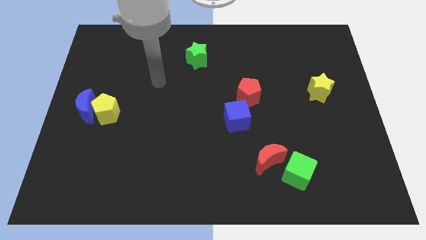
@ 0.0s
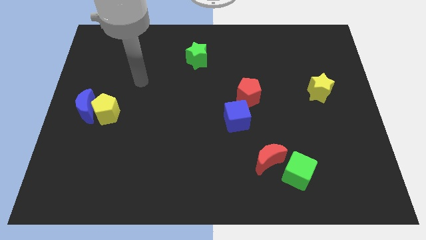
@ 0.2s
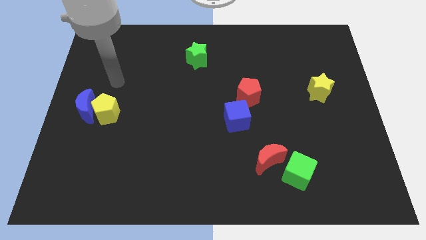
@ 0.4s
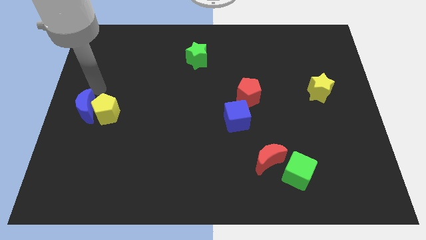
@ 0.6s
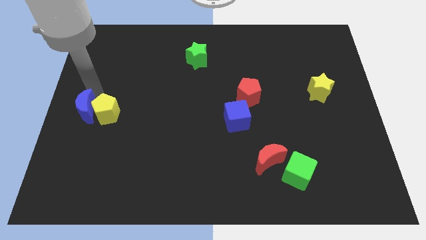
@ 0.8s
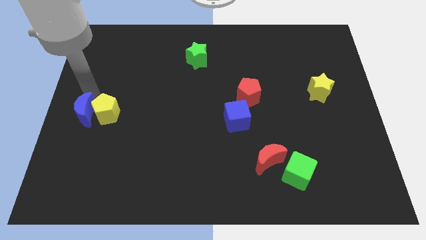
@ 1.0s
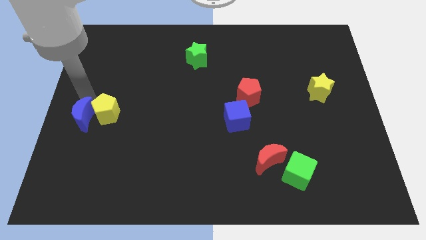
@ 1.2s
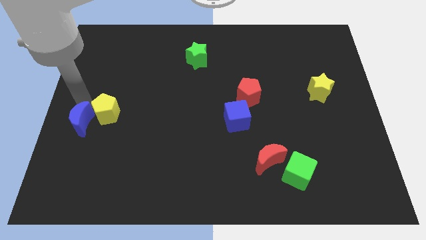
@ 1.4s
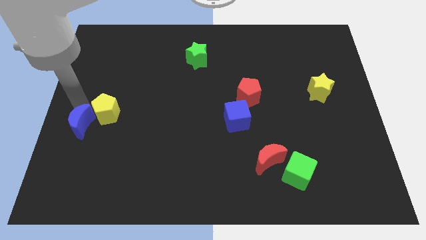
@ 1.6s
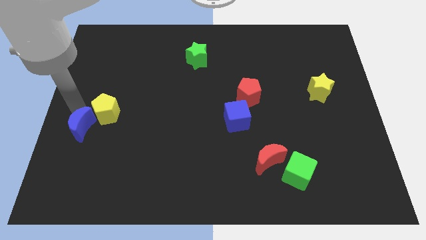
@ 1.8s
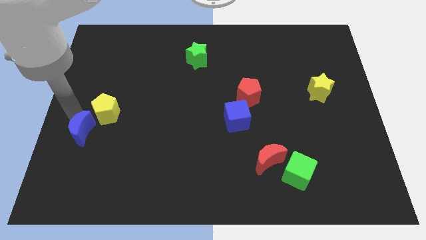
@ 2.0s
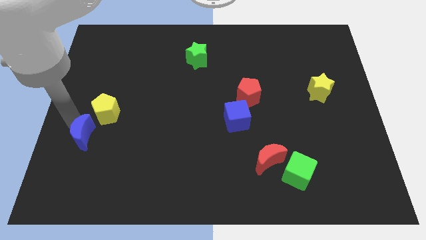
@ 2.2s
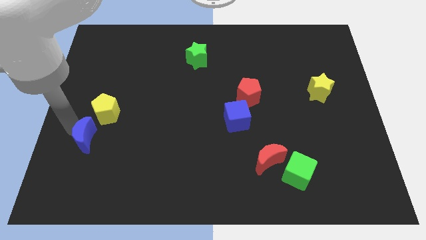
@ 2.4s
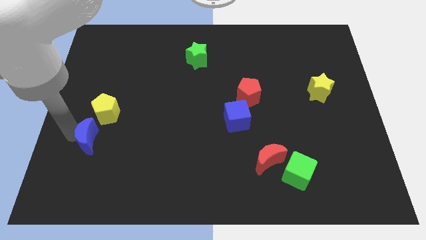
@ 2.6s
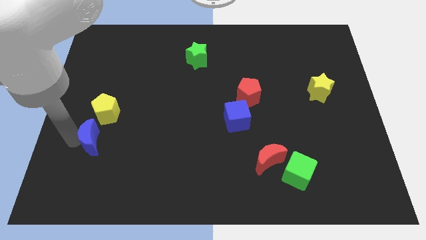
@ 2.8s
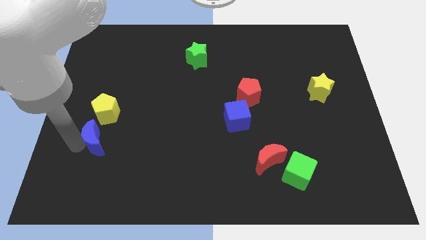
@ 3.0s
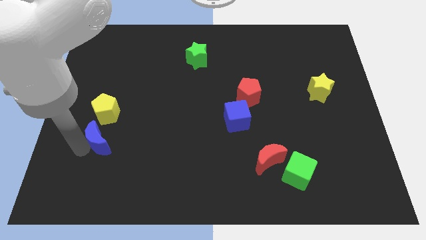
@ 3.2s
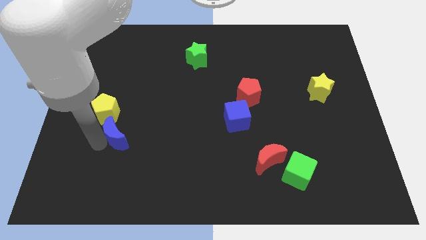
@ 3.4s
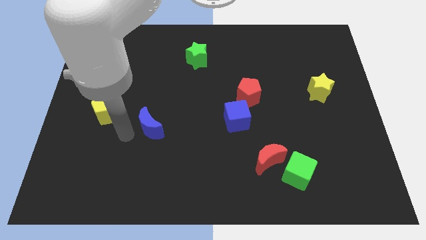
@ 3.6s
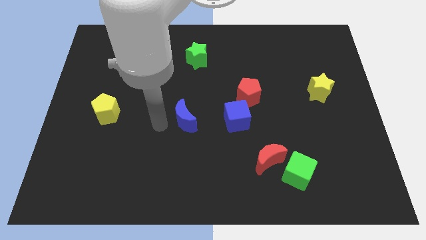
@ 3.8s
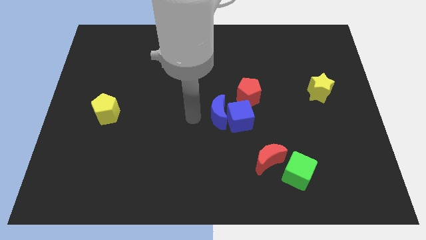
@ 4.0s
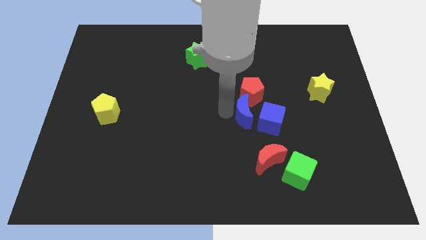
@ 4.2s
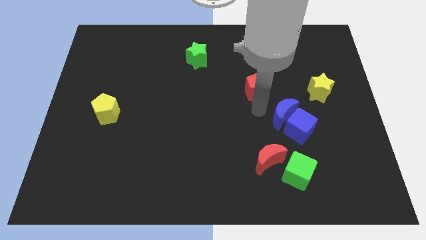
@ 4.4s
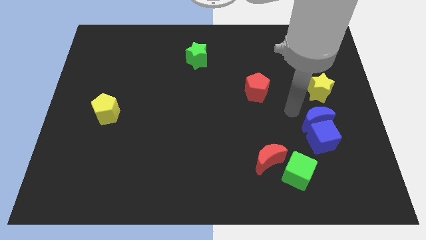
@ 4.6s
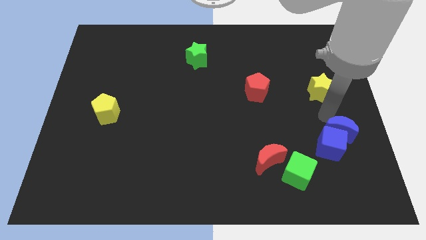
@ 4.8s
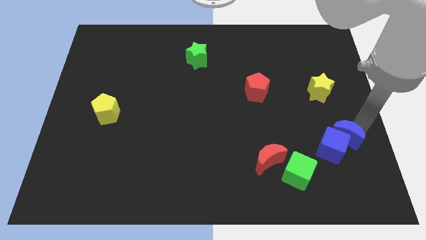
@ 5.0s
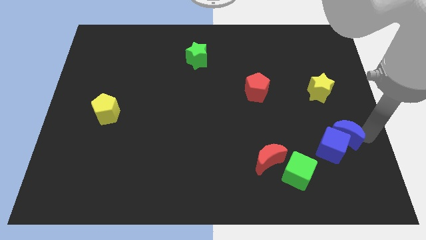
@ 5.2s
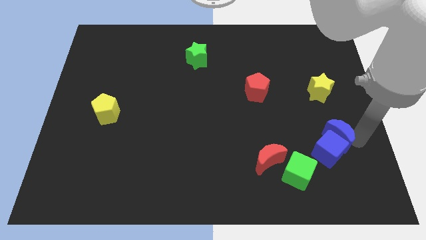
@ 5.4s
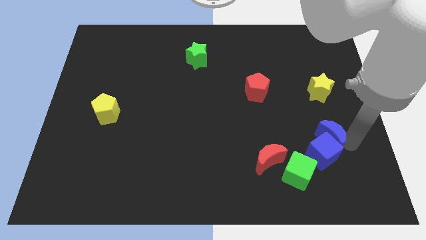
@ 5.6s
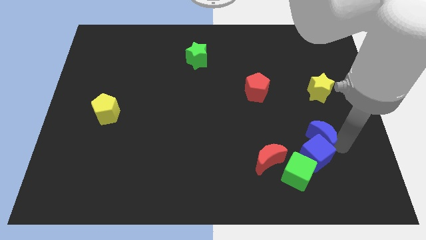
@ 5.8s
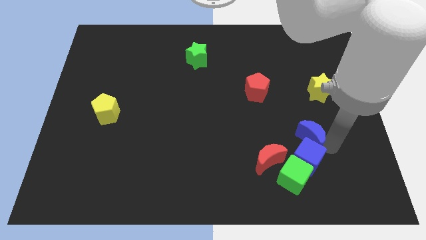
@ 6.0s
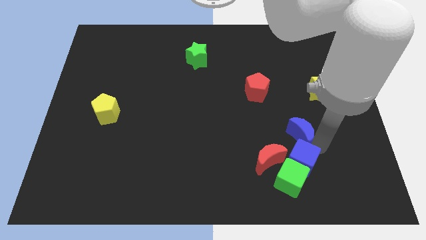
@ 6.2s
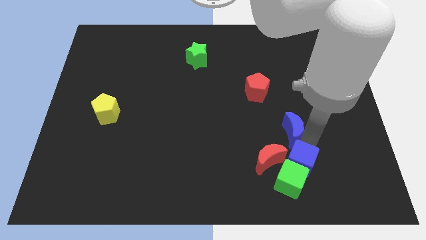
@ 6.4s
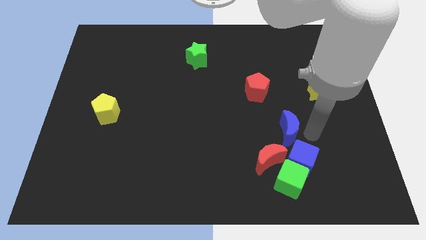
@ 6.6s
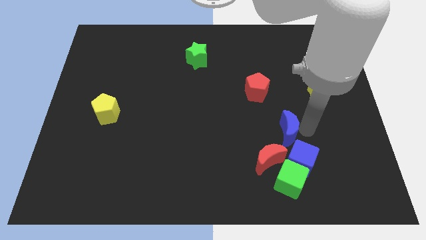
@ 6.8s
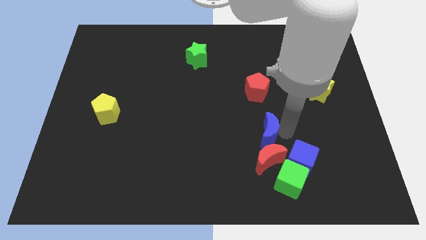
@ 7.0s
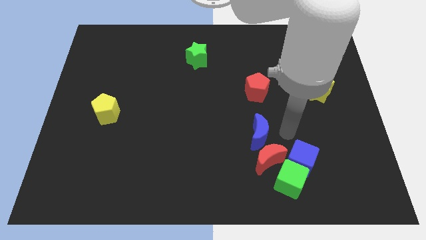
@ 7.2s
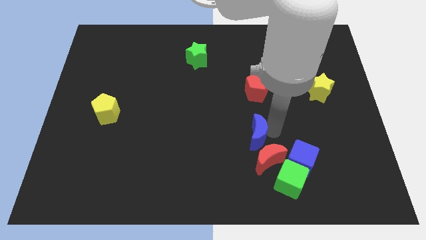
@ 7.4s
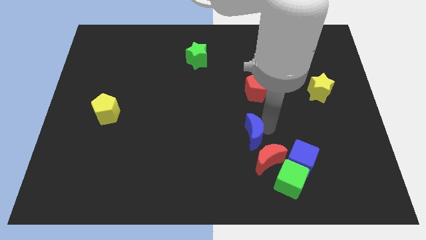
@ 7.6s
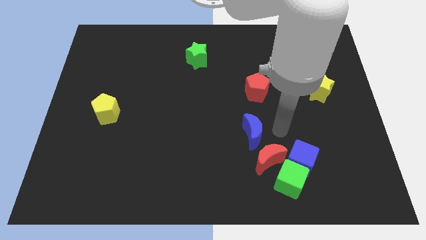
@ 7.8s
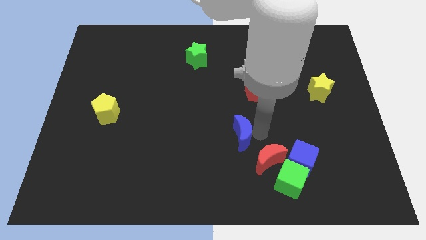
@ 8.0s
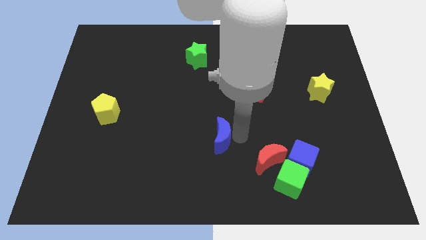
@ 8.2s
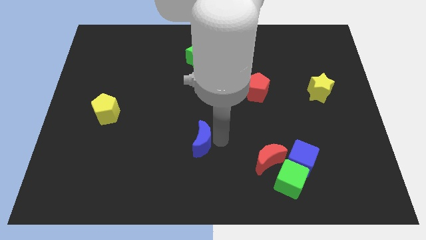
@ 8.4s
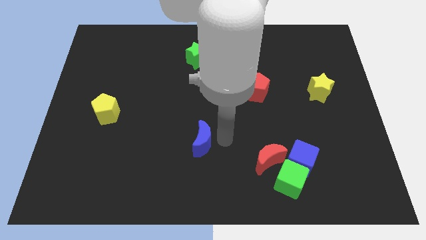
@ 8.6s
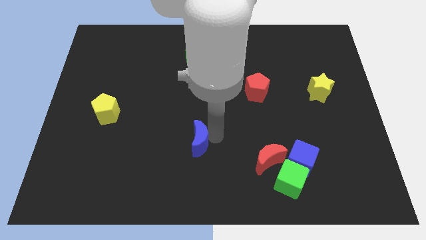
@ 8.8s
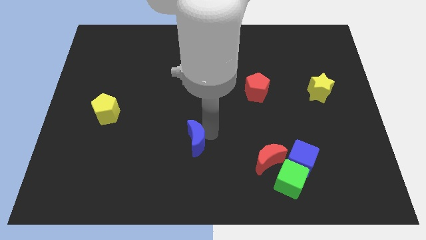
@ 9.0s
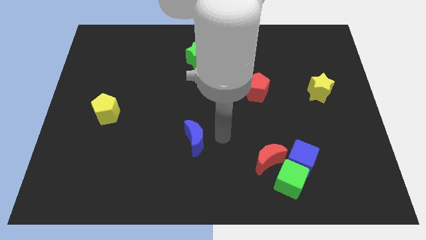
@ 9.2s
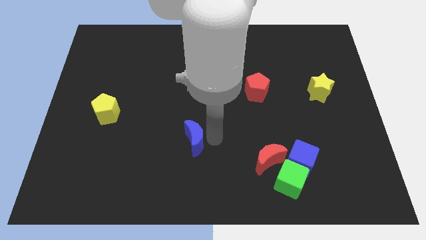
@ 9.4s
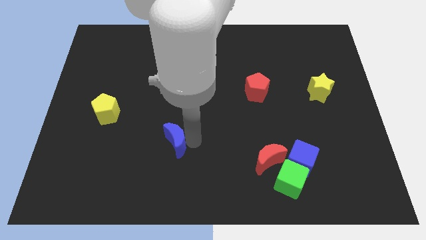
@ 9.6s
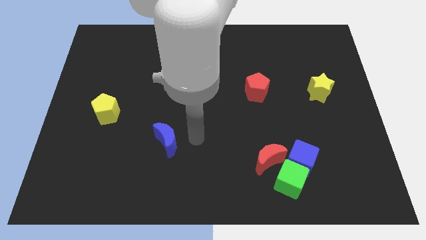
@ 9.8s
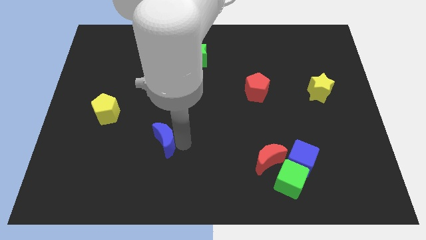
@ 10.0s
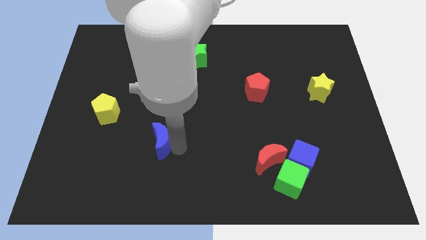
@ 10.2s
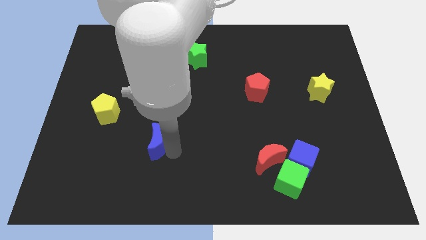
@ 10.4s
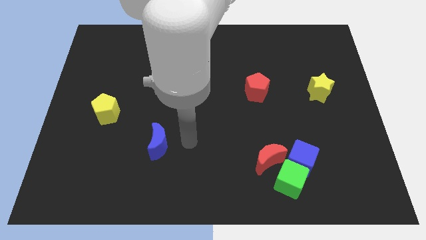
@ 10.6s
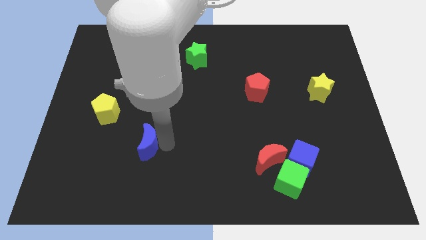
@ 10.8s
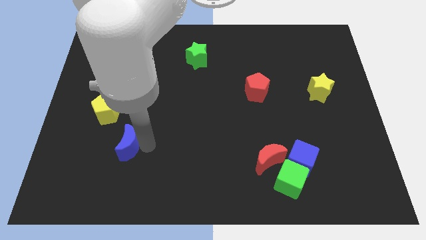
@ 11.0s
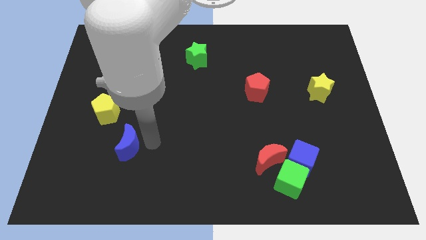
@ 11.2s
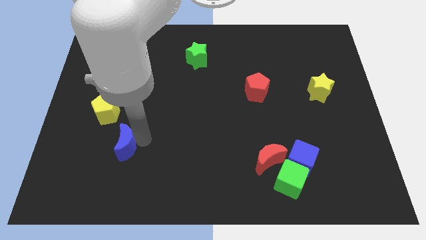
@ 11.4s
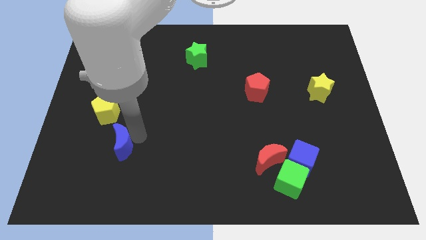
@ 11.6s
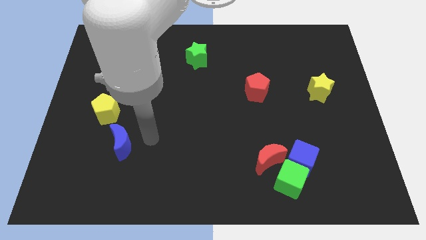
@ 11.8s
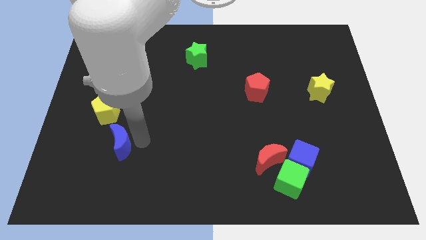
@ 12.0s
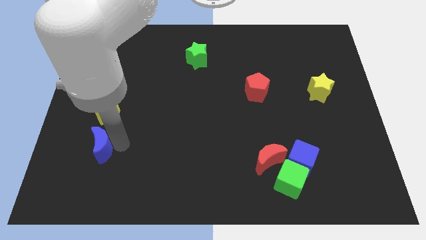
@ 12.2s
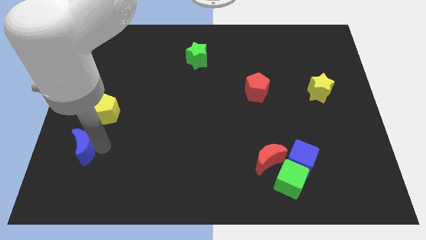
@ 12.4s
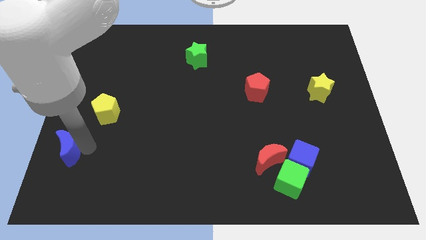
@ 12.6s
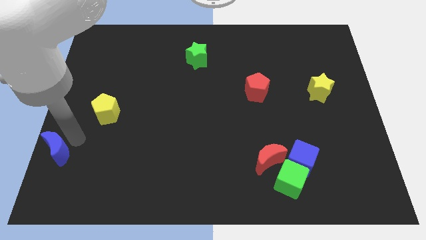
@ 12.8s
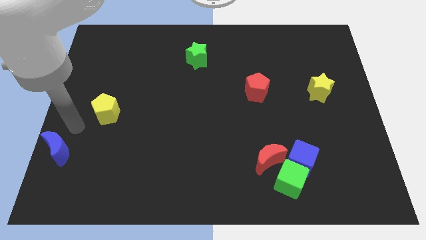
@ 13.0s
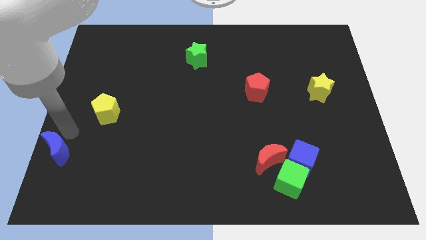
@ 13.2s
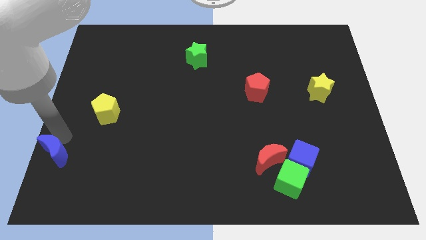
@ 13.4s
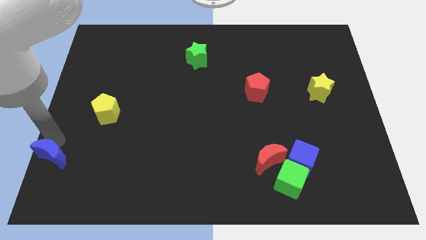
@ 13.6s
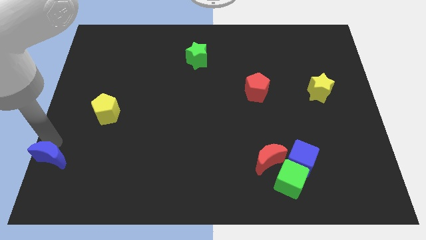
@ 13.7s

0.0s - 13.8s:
push the blue moon to the lower left corner
